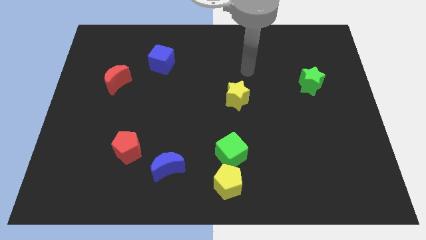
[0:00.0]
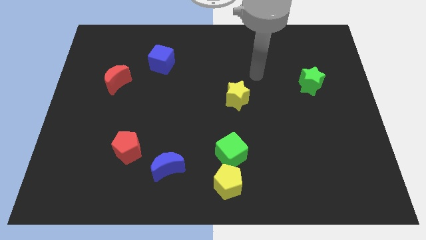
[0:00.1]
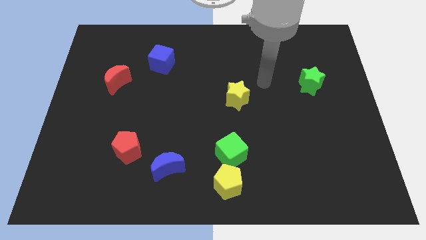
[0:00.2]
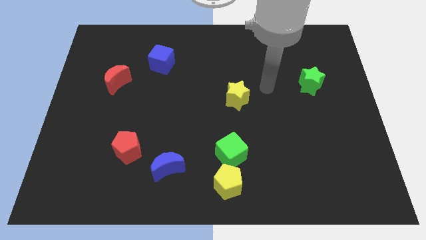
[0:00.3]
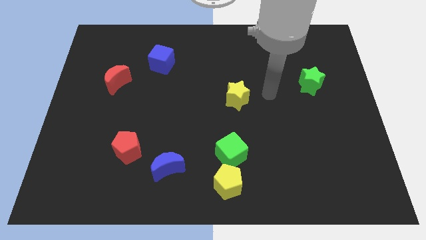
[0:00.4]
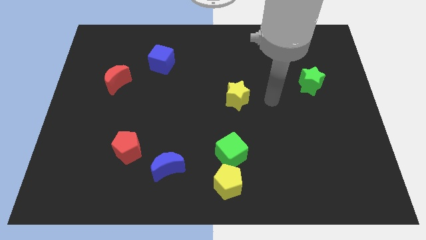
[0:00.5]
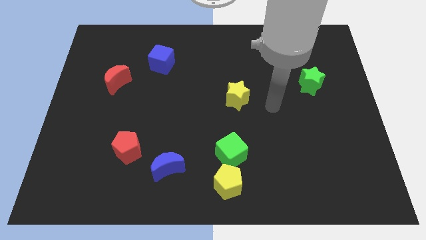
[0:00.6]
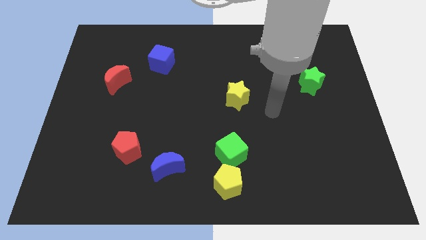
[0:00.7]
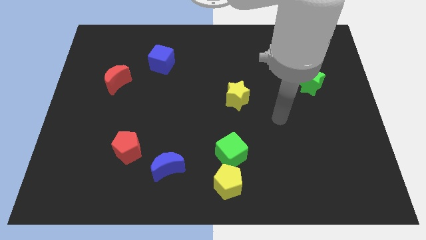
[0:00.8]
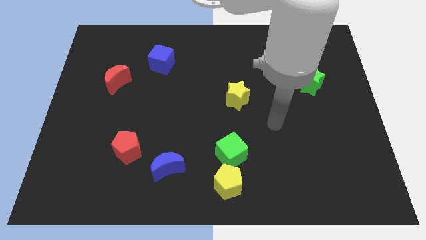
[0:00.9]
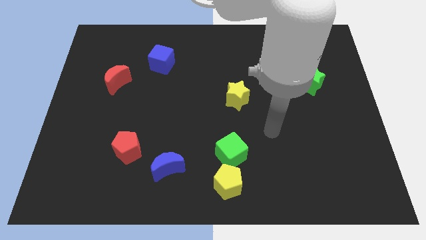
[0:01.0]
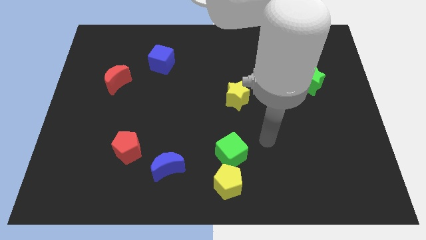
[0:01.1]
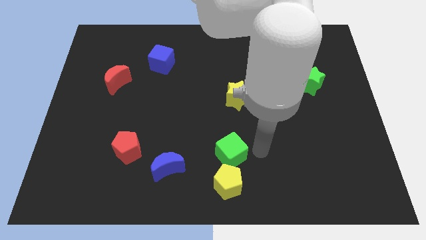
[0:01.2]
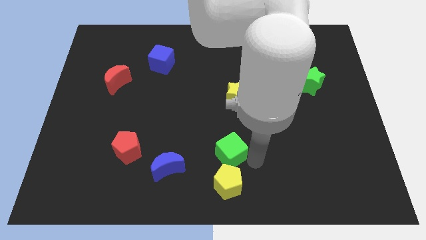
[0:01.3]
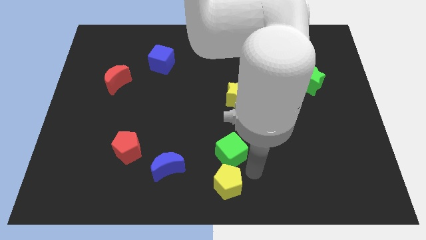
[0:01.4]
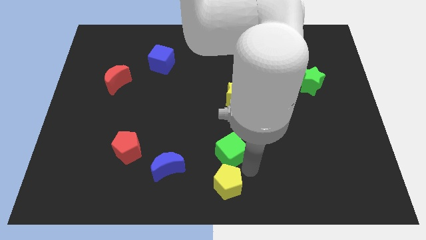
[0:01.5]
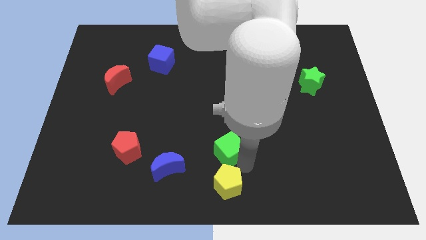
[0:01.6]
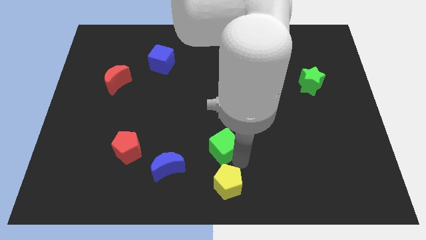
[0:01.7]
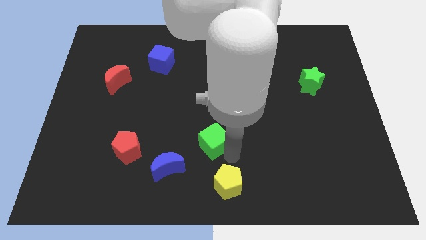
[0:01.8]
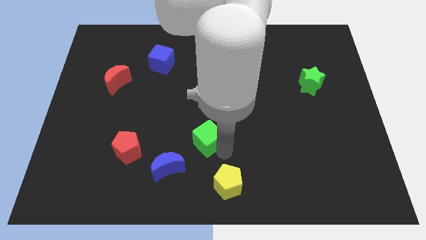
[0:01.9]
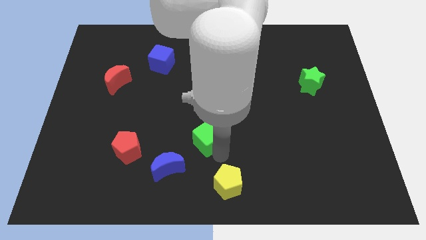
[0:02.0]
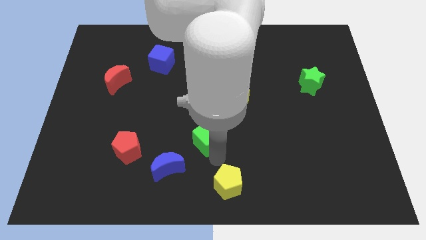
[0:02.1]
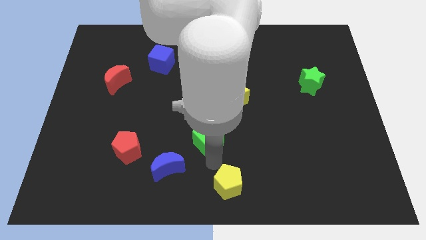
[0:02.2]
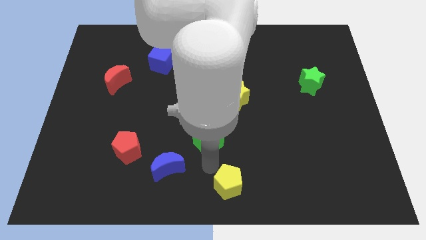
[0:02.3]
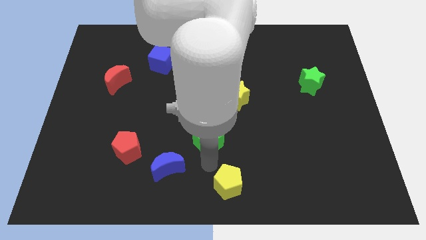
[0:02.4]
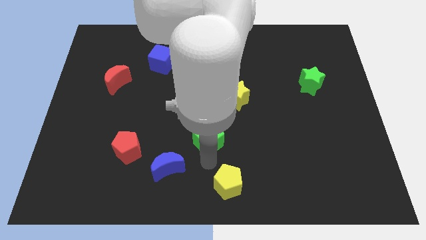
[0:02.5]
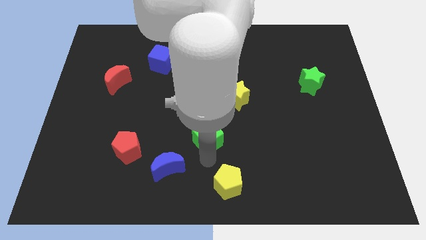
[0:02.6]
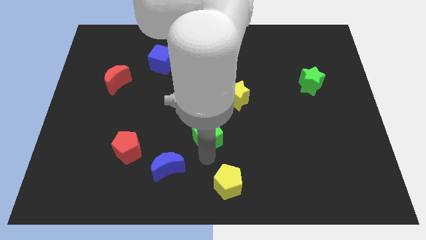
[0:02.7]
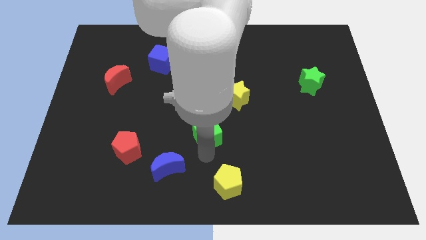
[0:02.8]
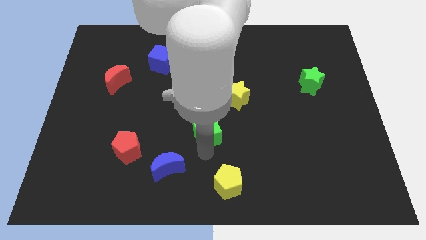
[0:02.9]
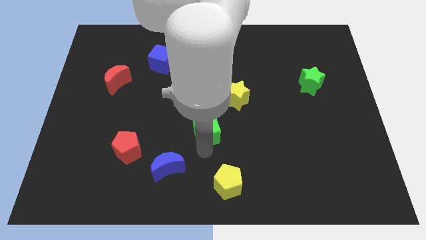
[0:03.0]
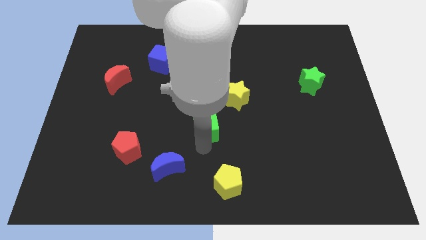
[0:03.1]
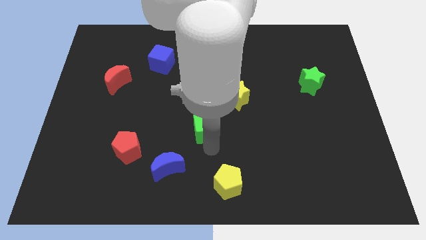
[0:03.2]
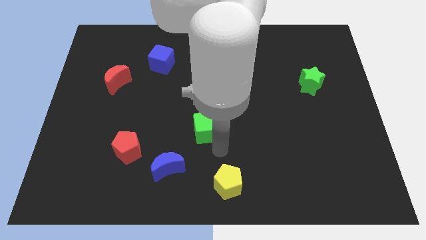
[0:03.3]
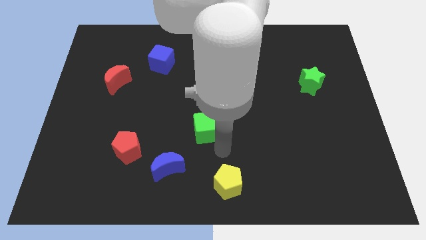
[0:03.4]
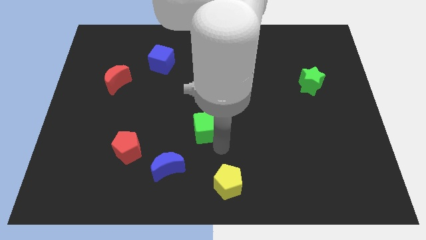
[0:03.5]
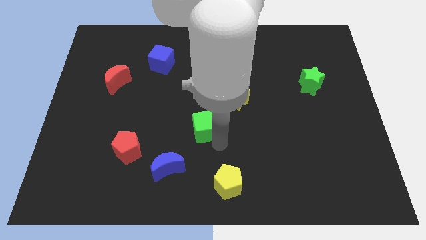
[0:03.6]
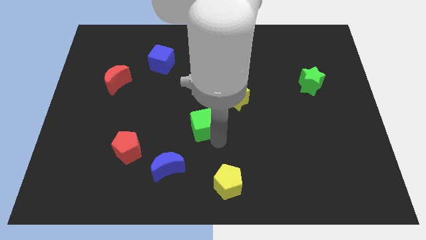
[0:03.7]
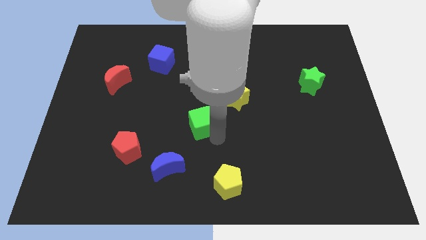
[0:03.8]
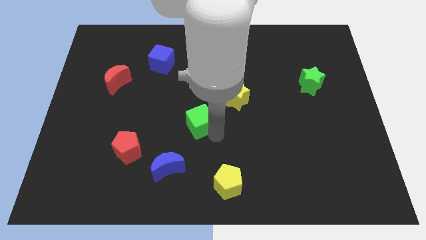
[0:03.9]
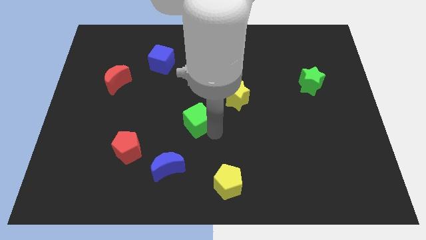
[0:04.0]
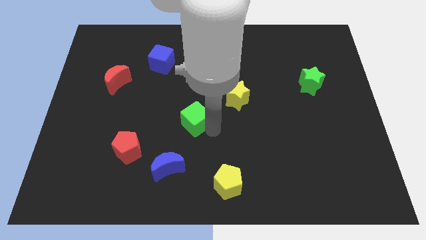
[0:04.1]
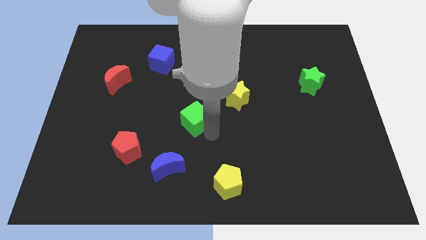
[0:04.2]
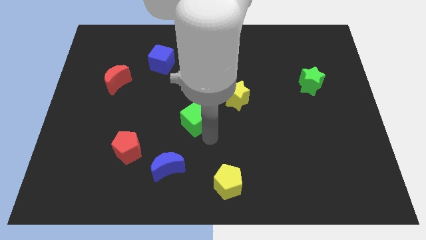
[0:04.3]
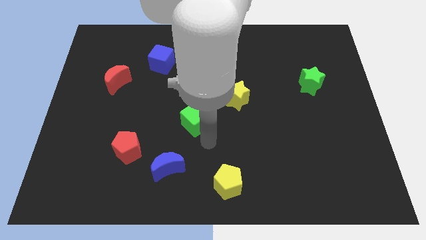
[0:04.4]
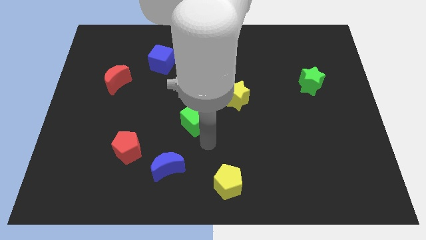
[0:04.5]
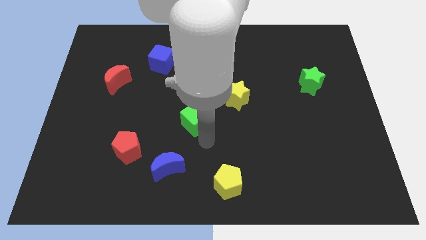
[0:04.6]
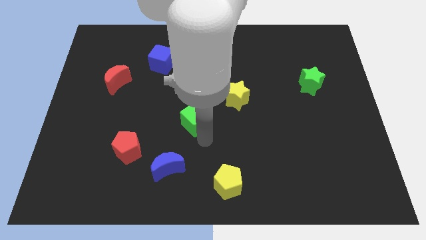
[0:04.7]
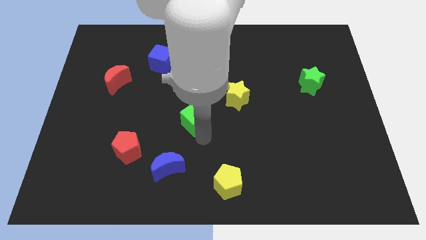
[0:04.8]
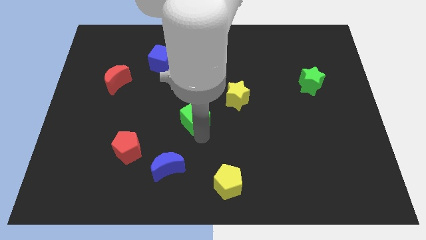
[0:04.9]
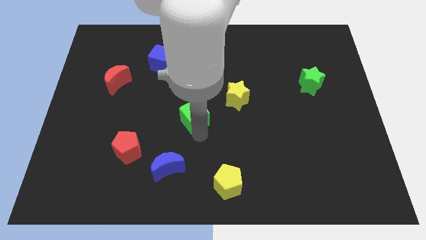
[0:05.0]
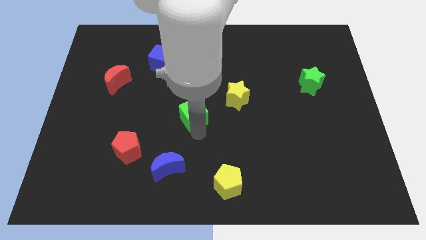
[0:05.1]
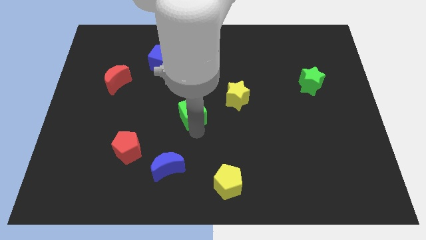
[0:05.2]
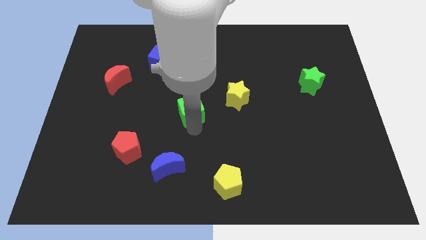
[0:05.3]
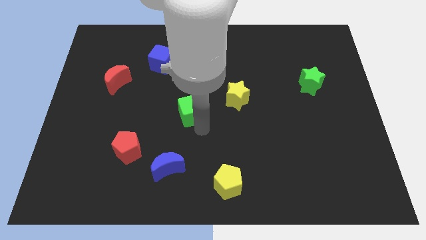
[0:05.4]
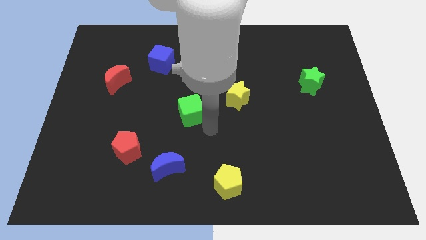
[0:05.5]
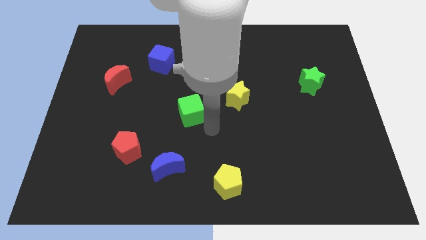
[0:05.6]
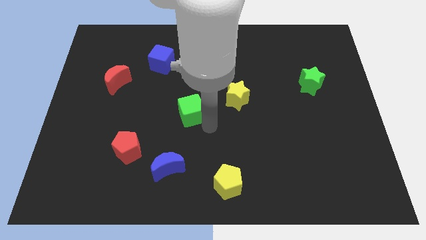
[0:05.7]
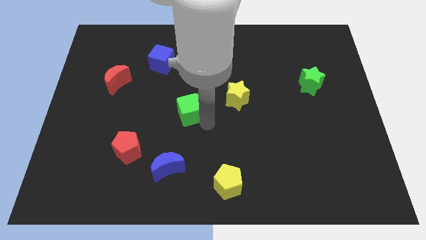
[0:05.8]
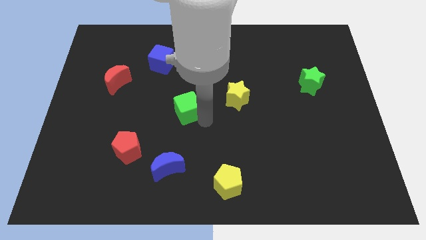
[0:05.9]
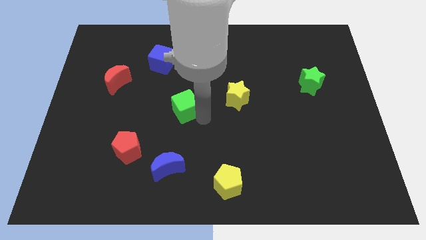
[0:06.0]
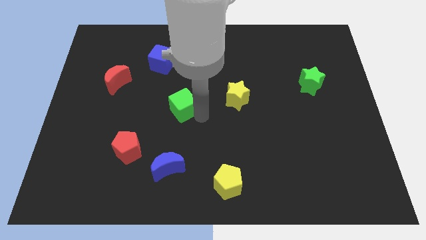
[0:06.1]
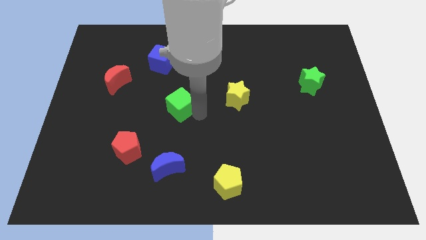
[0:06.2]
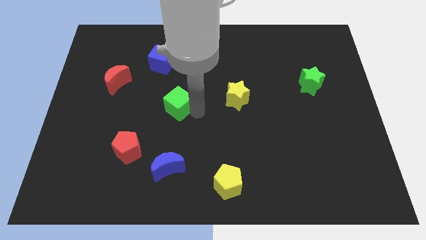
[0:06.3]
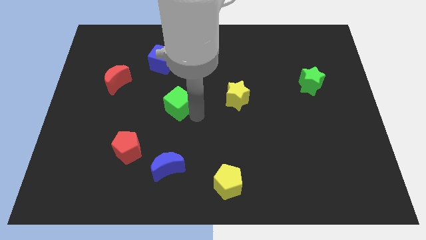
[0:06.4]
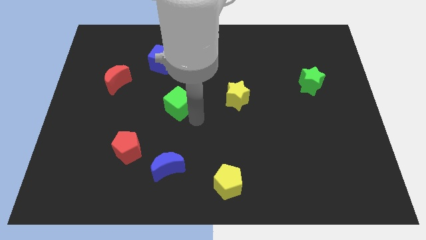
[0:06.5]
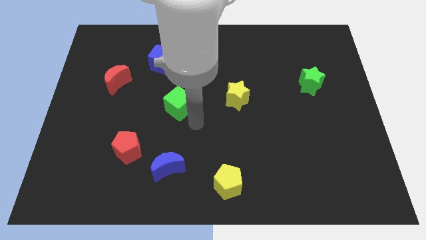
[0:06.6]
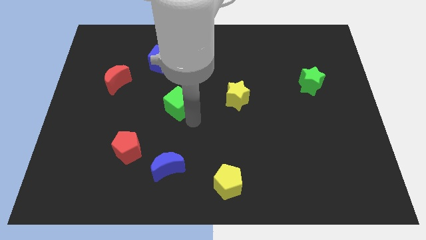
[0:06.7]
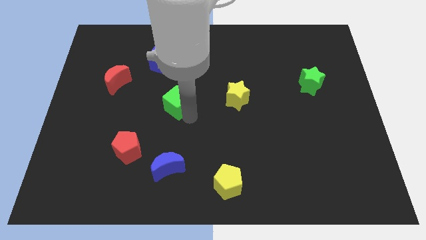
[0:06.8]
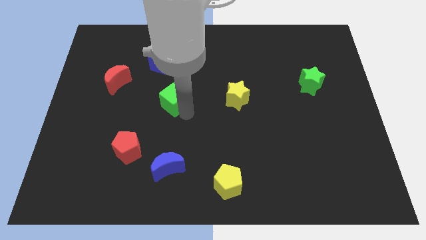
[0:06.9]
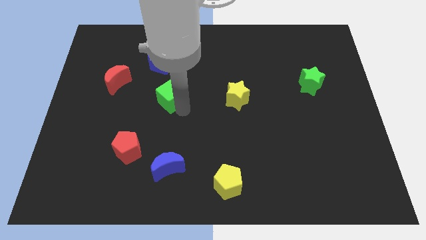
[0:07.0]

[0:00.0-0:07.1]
slide the green cube upwards and to the left diagonally

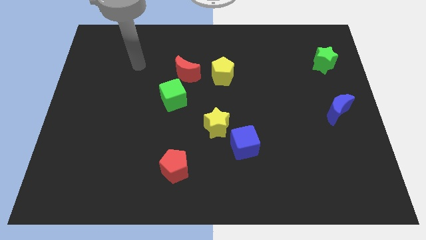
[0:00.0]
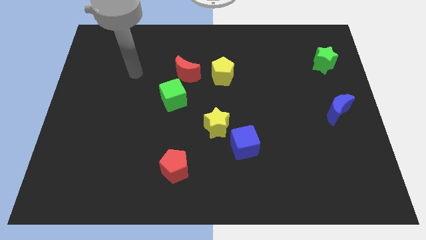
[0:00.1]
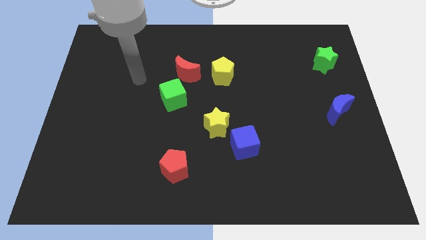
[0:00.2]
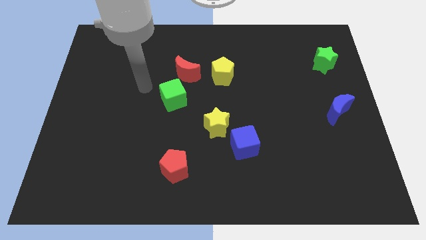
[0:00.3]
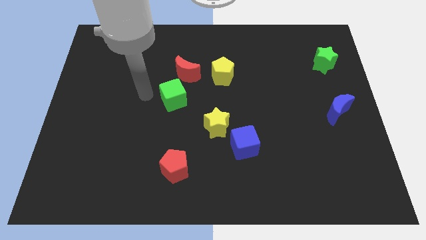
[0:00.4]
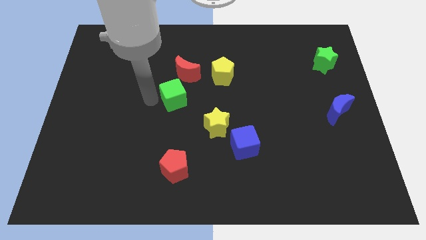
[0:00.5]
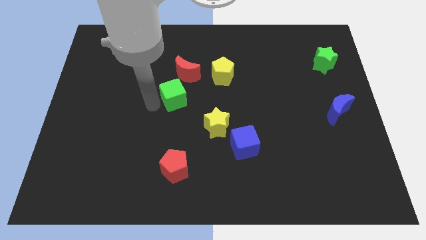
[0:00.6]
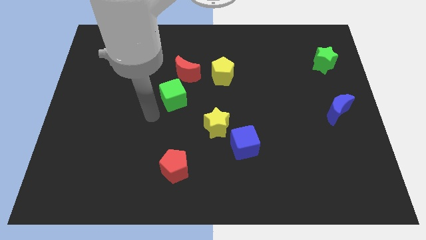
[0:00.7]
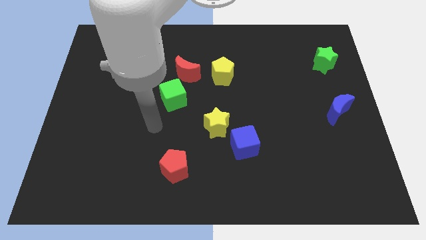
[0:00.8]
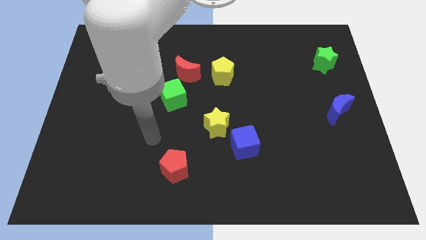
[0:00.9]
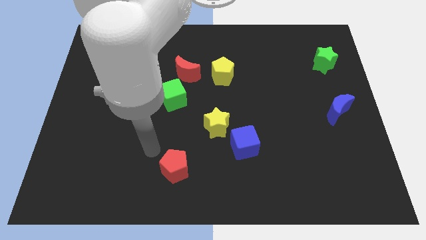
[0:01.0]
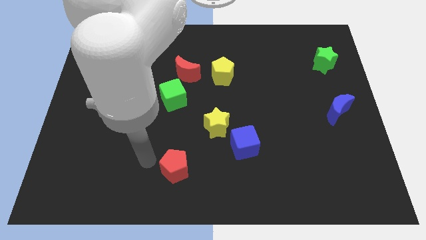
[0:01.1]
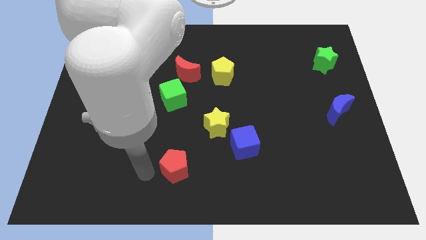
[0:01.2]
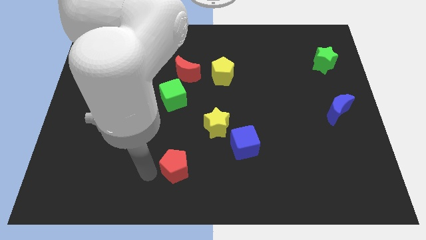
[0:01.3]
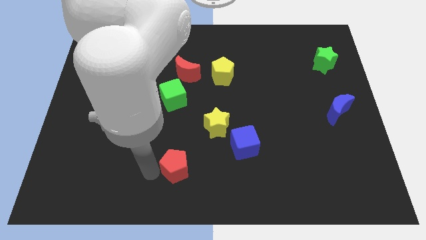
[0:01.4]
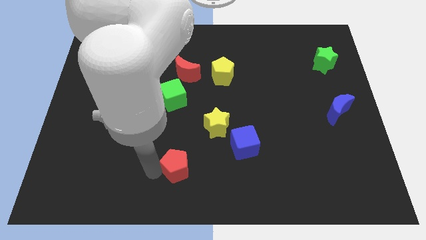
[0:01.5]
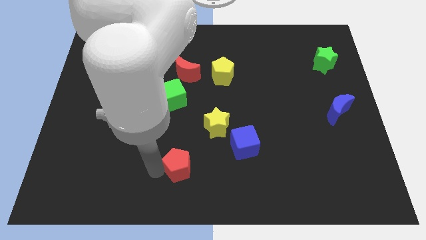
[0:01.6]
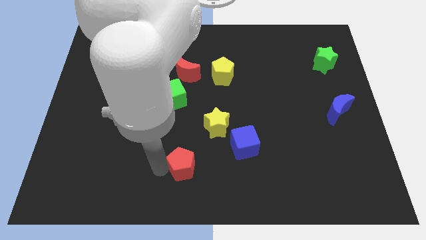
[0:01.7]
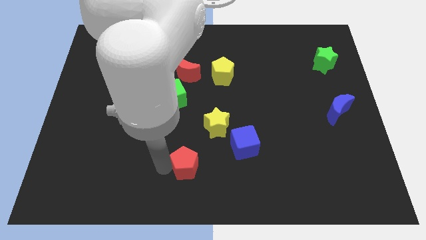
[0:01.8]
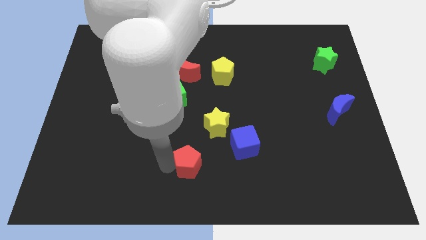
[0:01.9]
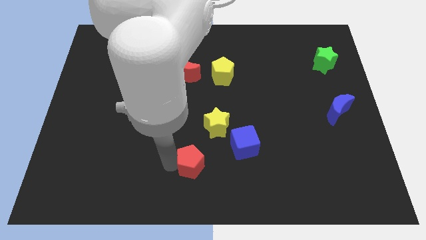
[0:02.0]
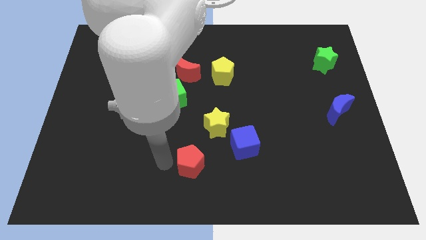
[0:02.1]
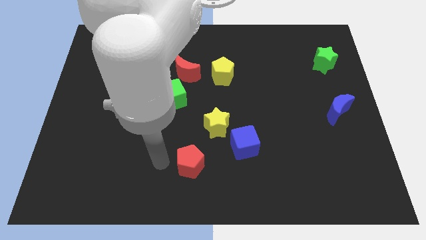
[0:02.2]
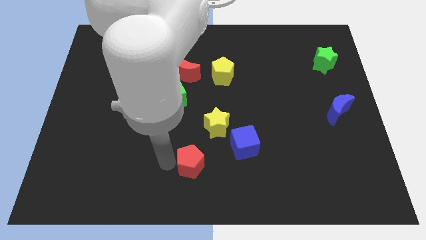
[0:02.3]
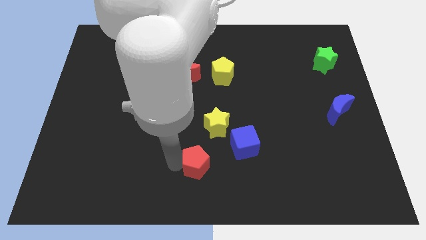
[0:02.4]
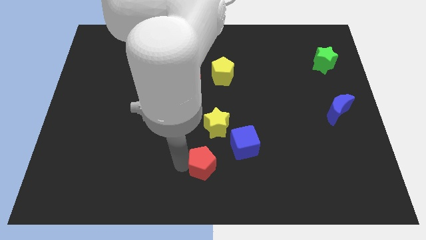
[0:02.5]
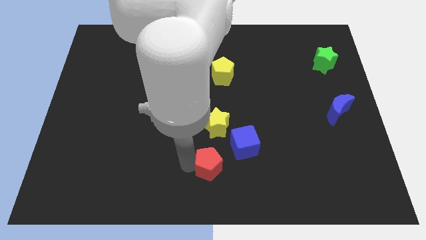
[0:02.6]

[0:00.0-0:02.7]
slightly move the red pentagon to the right
